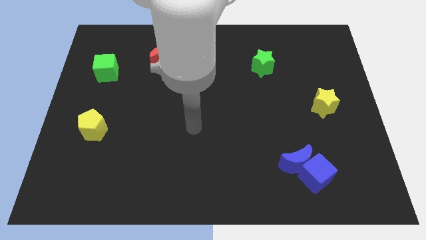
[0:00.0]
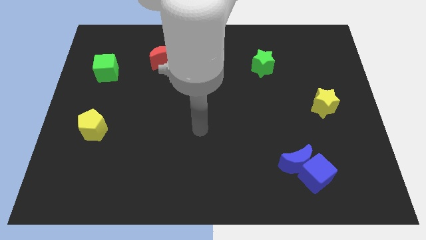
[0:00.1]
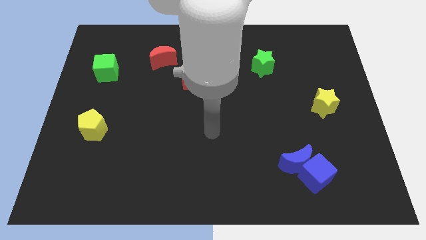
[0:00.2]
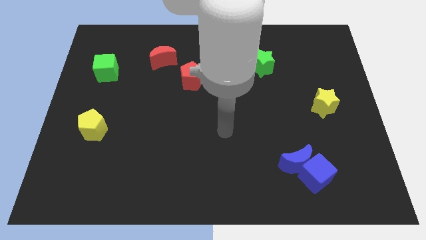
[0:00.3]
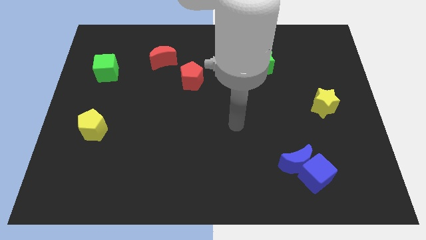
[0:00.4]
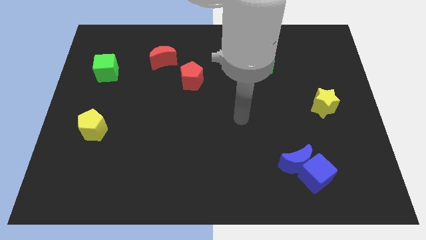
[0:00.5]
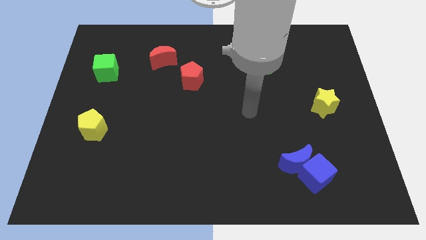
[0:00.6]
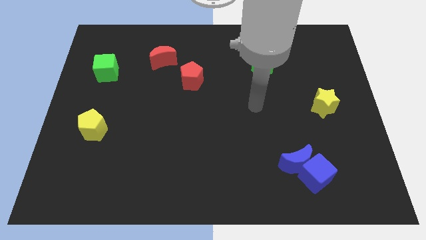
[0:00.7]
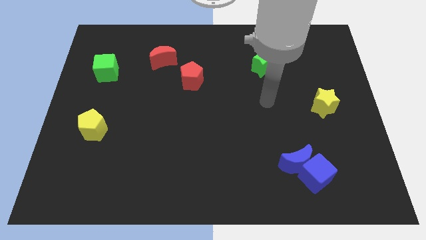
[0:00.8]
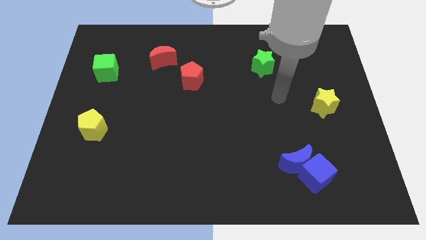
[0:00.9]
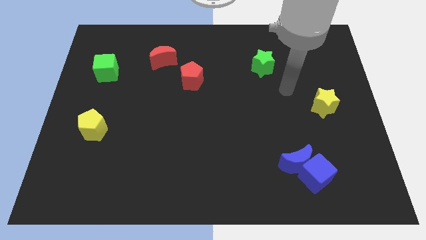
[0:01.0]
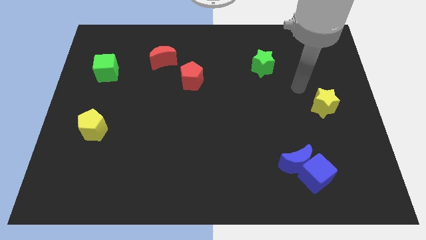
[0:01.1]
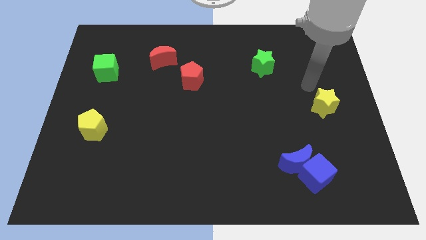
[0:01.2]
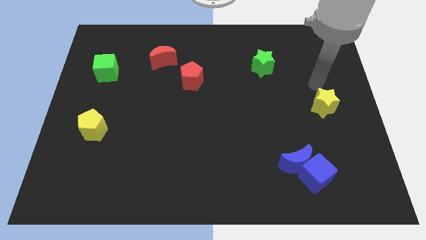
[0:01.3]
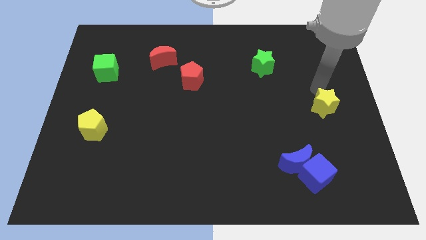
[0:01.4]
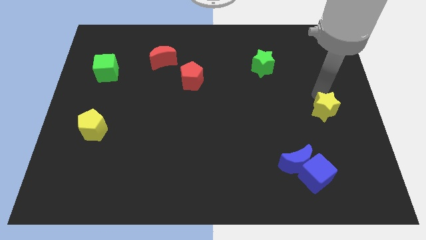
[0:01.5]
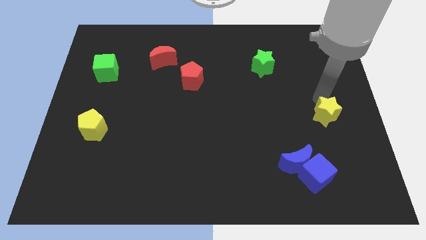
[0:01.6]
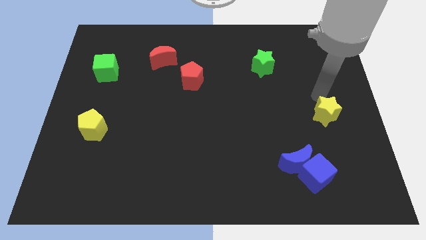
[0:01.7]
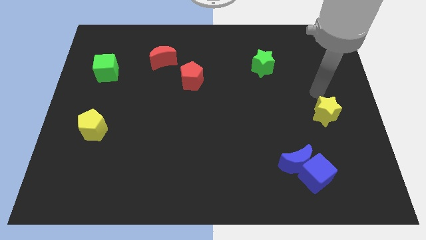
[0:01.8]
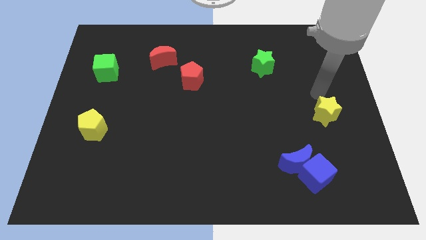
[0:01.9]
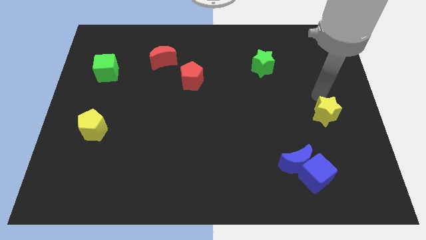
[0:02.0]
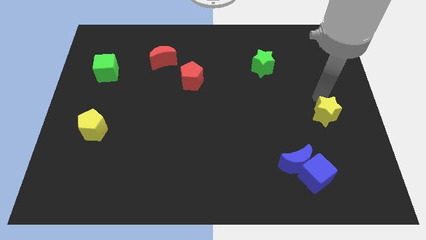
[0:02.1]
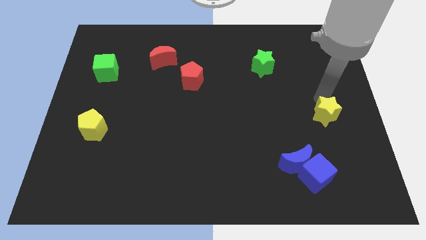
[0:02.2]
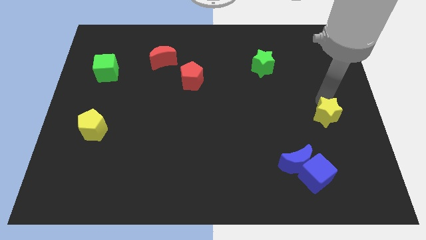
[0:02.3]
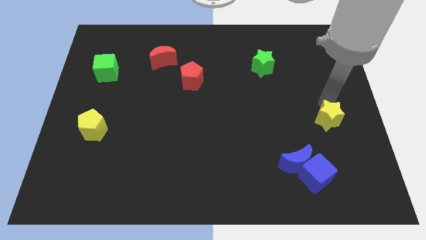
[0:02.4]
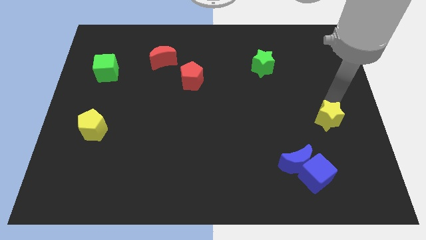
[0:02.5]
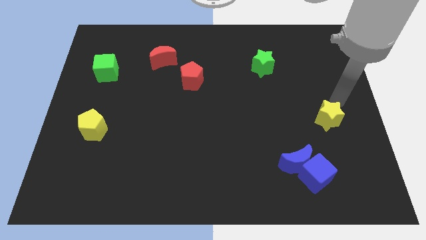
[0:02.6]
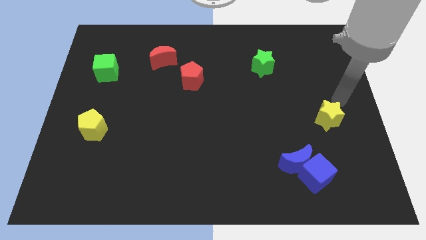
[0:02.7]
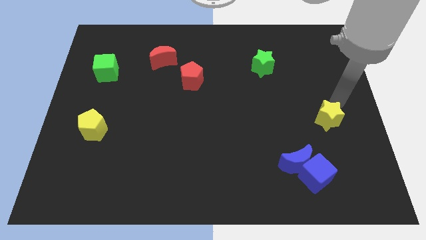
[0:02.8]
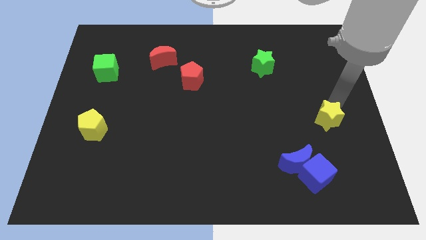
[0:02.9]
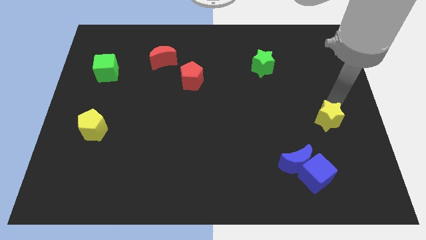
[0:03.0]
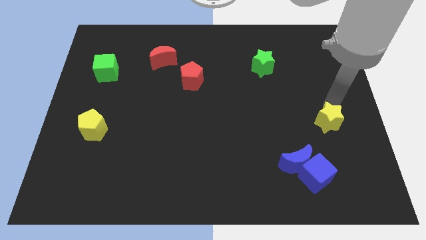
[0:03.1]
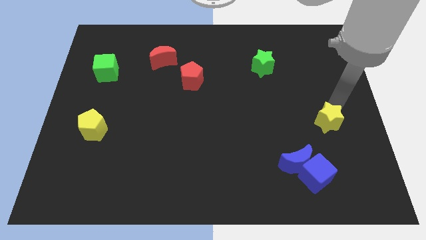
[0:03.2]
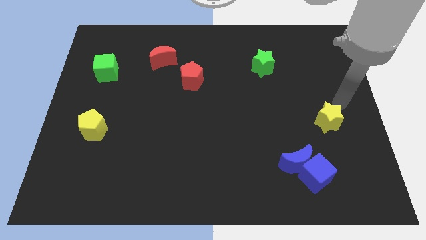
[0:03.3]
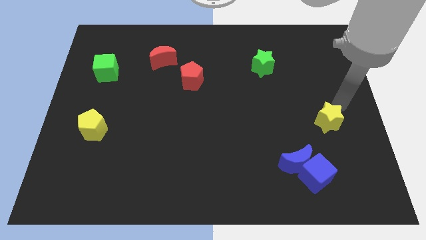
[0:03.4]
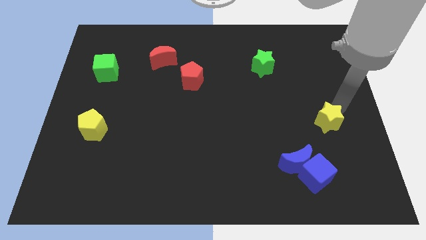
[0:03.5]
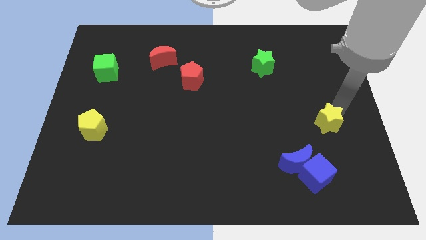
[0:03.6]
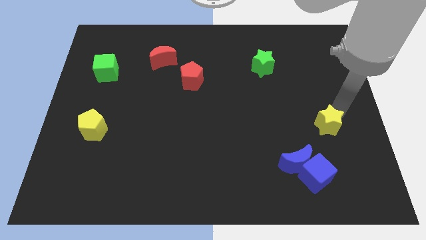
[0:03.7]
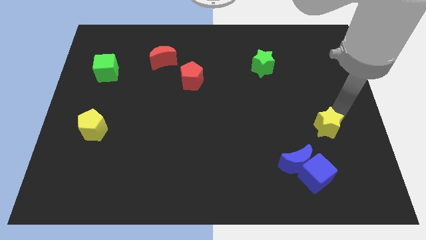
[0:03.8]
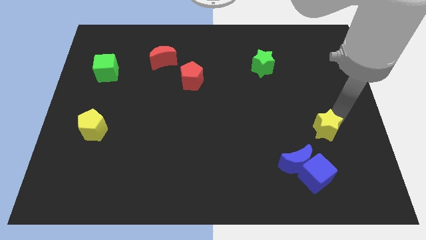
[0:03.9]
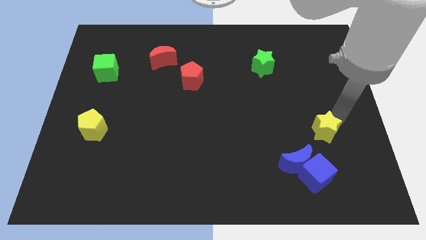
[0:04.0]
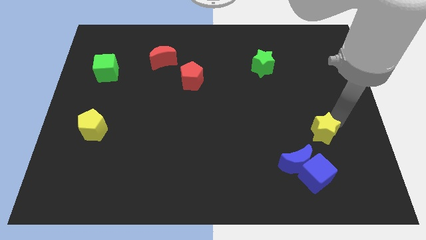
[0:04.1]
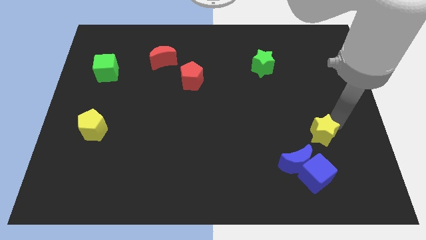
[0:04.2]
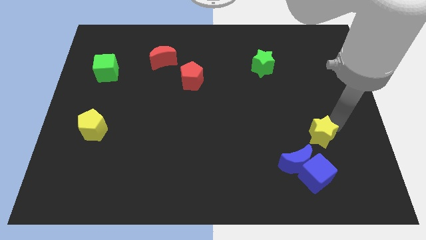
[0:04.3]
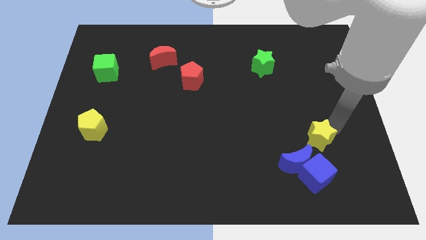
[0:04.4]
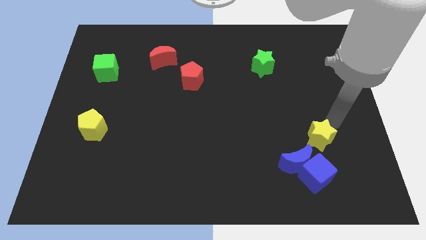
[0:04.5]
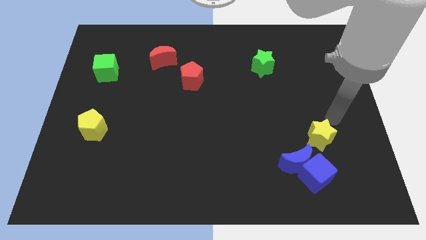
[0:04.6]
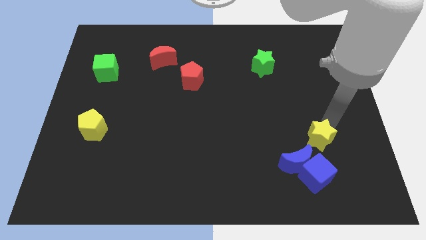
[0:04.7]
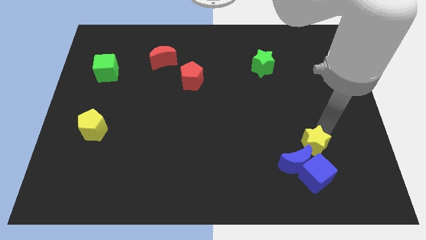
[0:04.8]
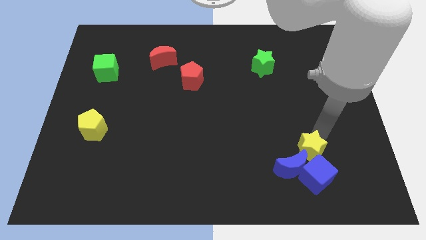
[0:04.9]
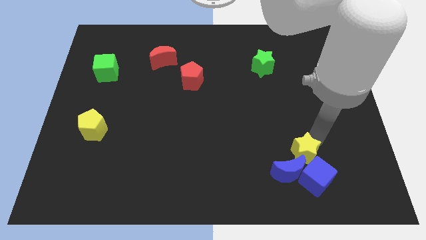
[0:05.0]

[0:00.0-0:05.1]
slide the yellow star to the blue moon

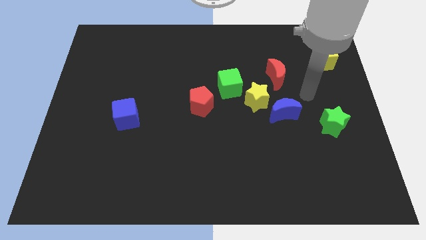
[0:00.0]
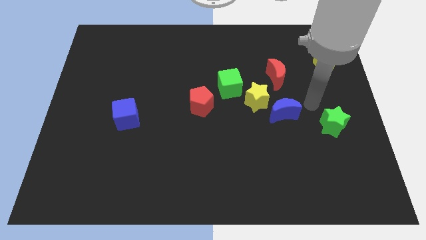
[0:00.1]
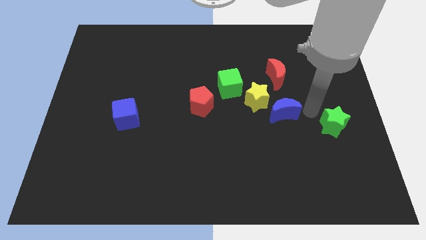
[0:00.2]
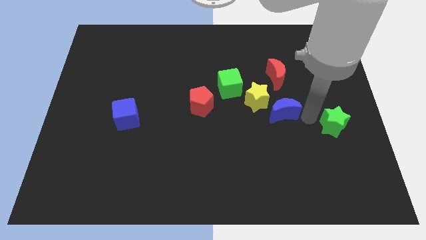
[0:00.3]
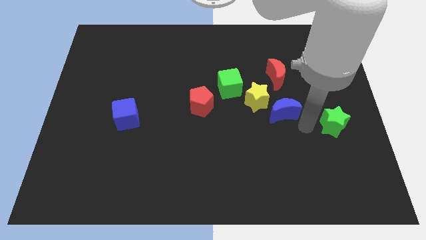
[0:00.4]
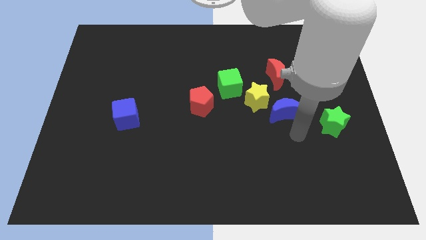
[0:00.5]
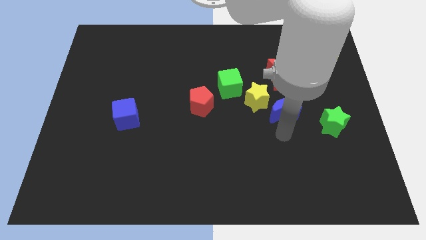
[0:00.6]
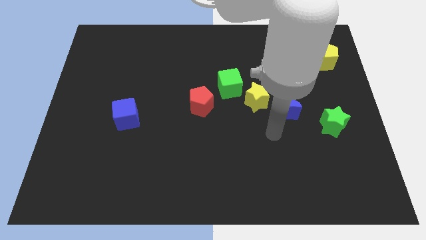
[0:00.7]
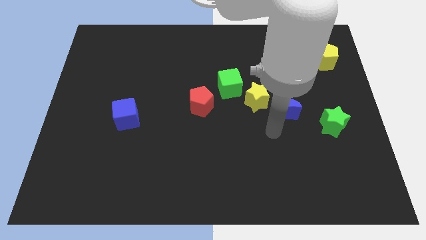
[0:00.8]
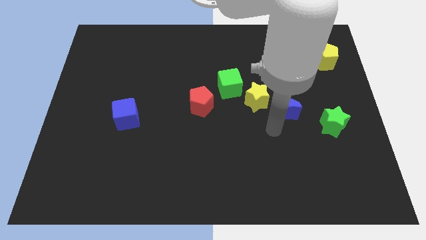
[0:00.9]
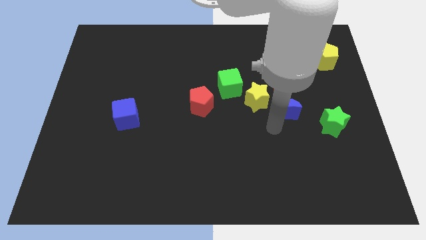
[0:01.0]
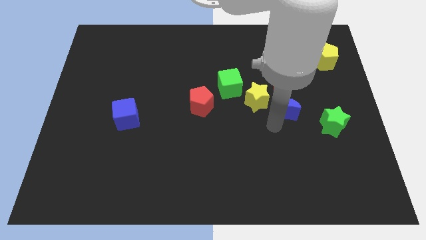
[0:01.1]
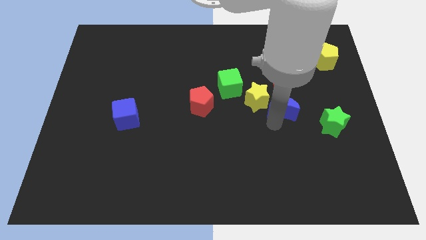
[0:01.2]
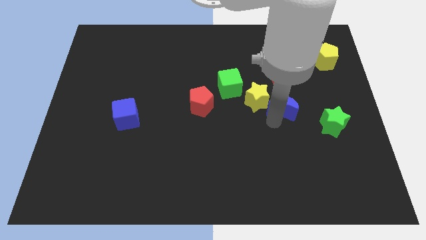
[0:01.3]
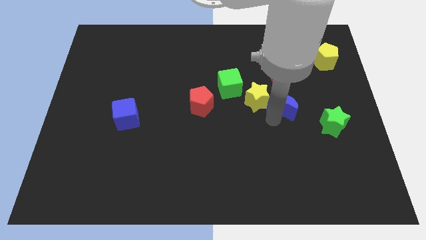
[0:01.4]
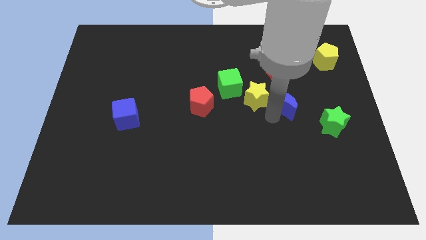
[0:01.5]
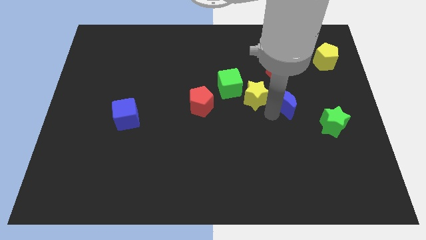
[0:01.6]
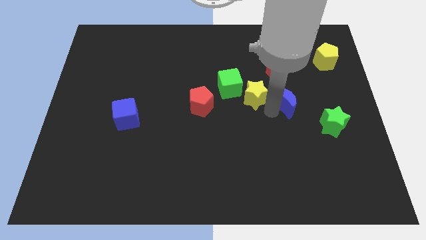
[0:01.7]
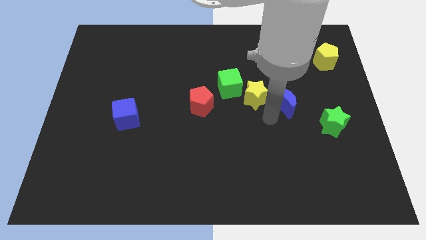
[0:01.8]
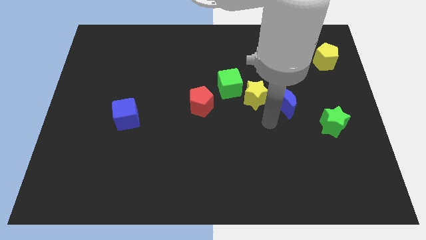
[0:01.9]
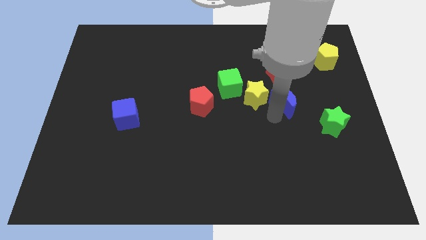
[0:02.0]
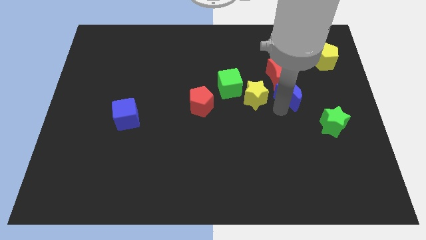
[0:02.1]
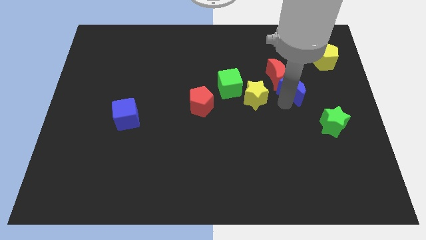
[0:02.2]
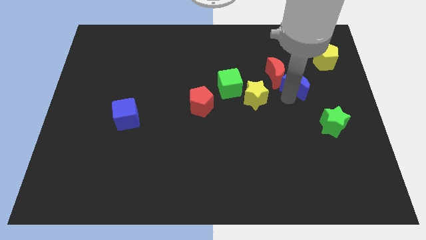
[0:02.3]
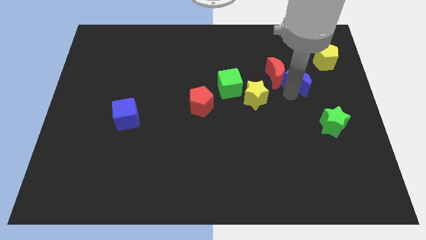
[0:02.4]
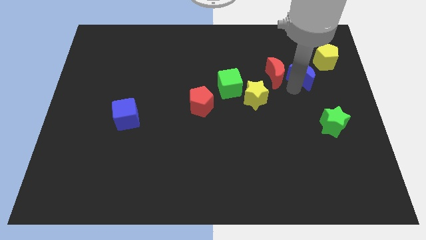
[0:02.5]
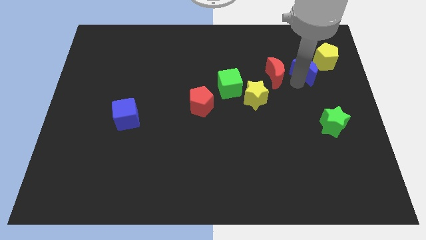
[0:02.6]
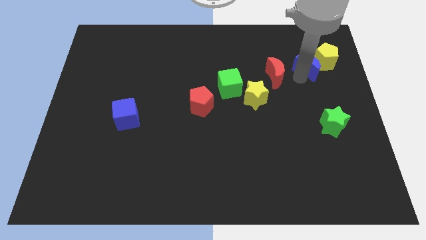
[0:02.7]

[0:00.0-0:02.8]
slide the blue moon close to the yellow pentagon
